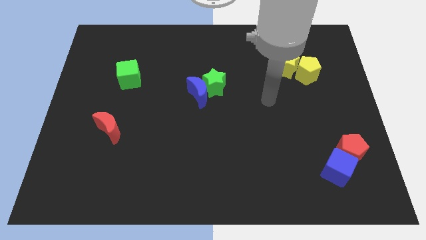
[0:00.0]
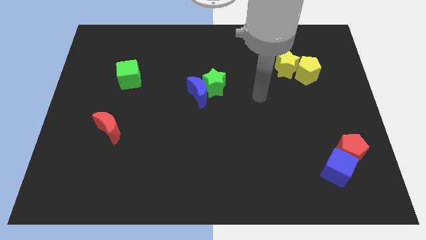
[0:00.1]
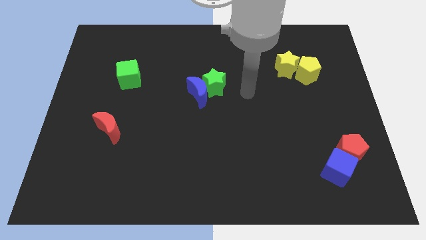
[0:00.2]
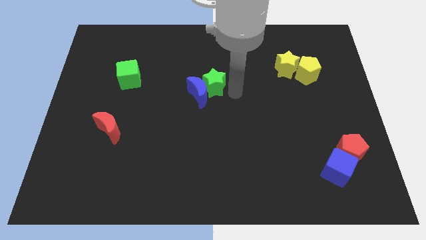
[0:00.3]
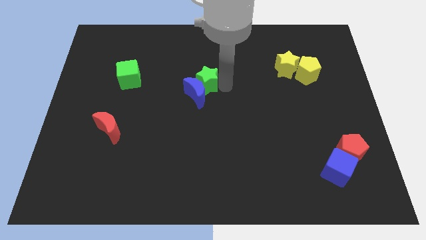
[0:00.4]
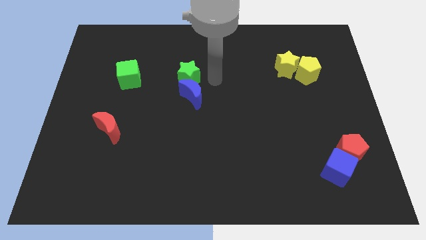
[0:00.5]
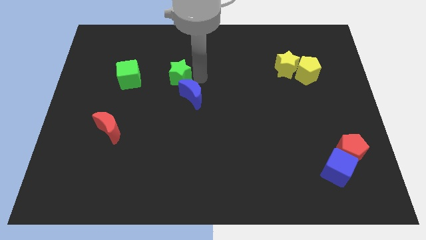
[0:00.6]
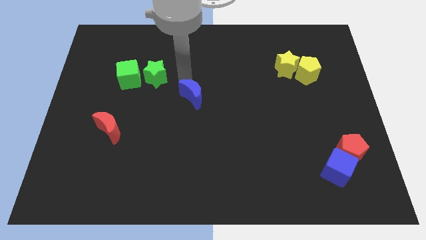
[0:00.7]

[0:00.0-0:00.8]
pull the blue moon apart from the green star

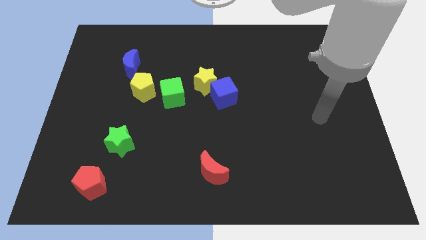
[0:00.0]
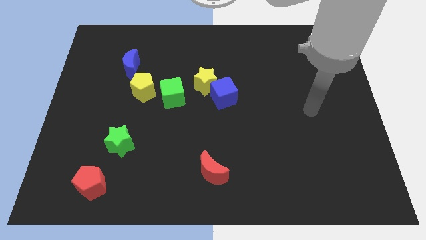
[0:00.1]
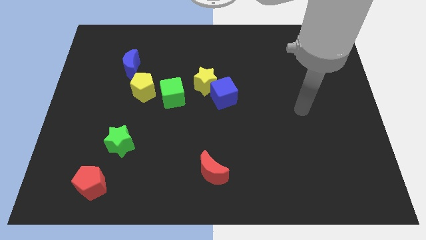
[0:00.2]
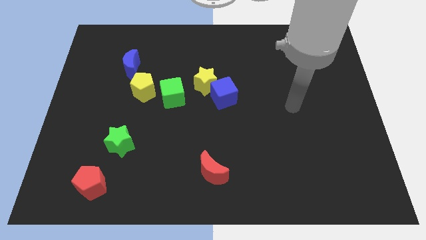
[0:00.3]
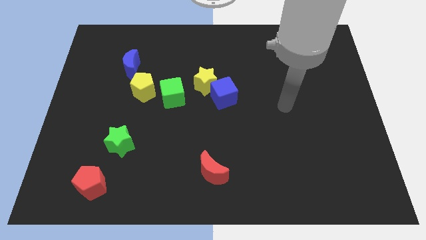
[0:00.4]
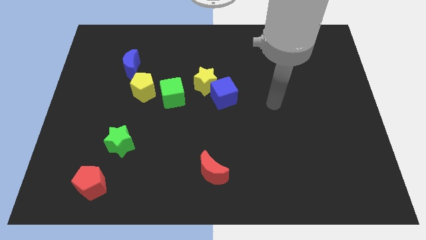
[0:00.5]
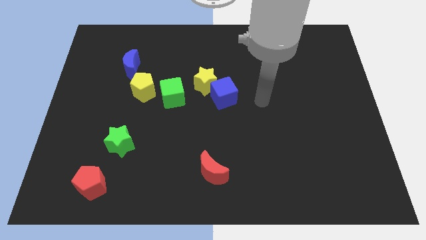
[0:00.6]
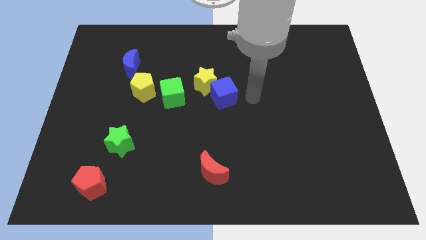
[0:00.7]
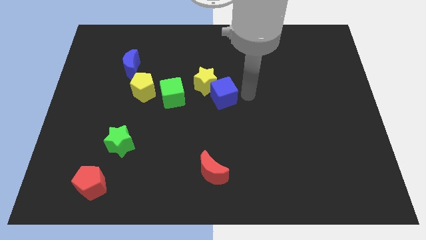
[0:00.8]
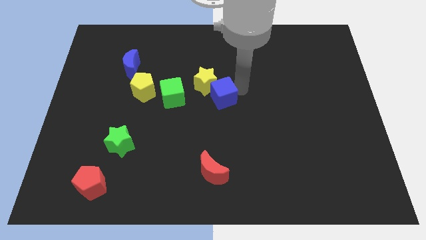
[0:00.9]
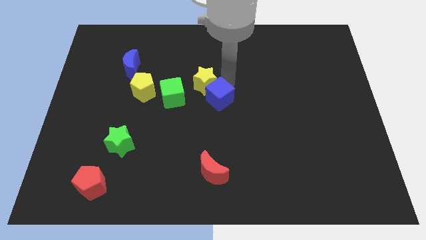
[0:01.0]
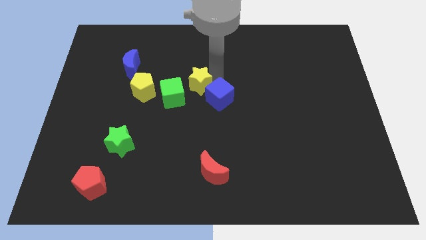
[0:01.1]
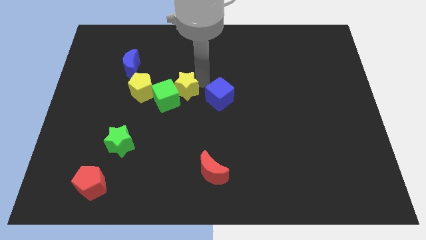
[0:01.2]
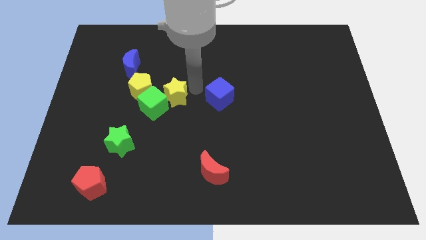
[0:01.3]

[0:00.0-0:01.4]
pull the blue cube apart from the yellow star

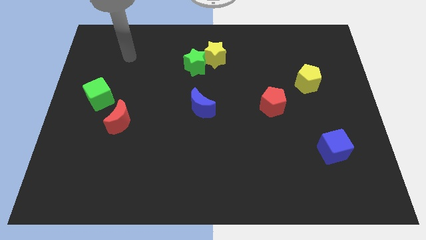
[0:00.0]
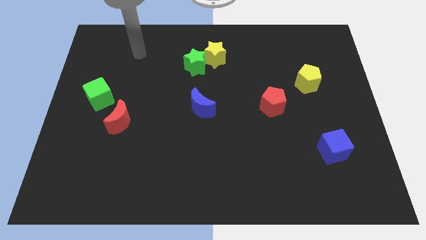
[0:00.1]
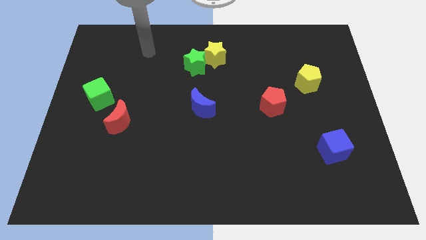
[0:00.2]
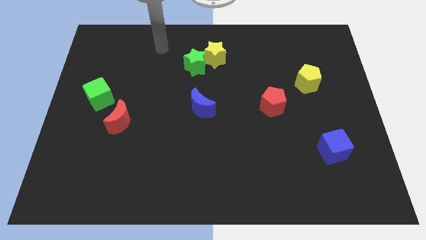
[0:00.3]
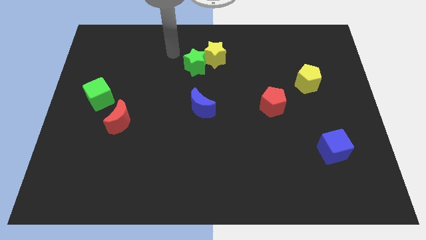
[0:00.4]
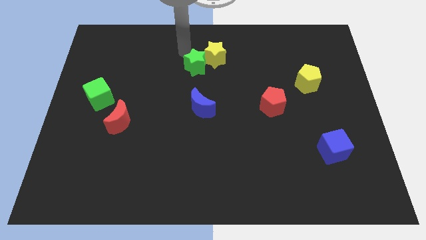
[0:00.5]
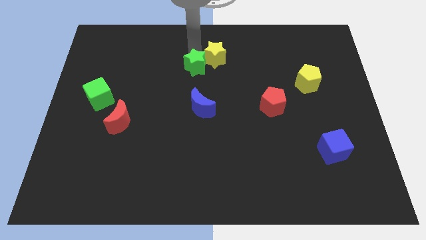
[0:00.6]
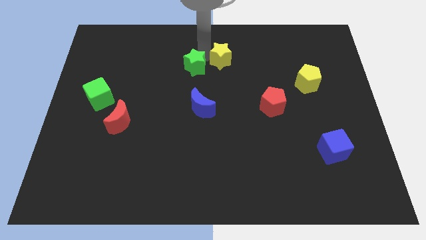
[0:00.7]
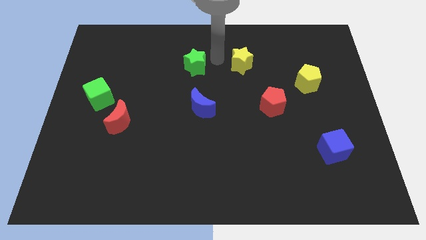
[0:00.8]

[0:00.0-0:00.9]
separate the green star from the yellow star

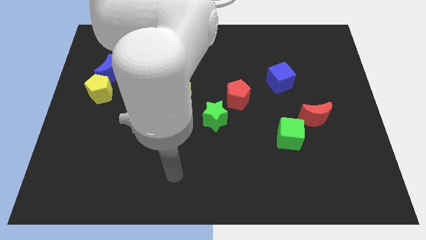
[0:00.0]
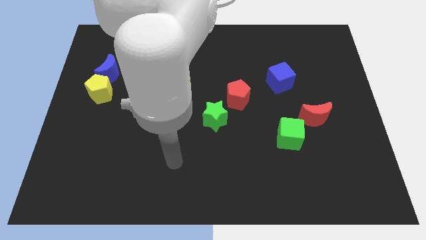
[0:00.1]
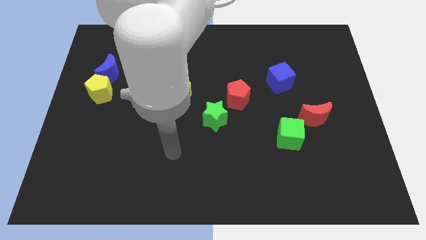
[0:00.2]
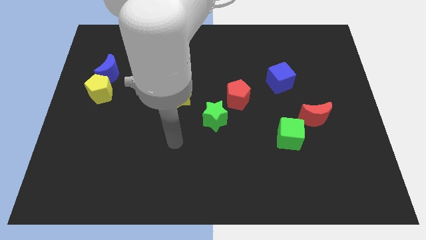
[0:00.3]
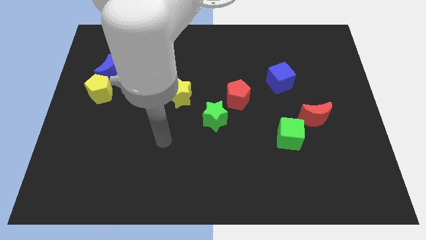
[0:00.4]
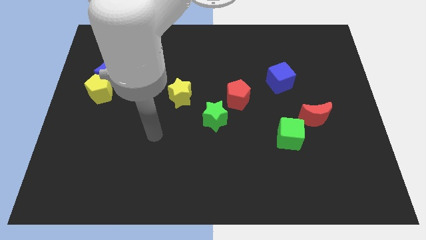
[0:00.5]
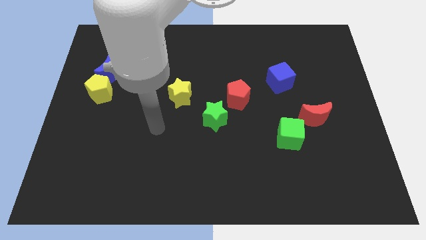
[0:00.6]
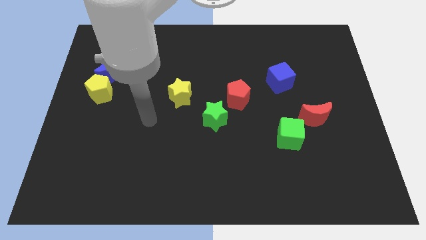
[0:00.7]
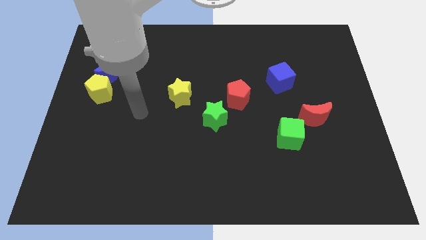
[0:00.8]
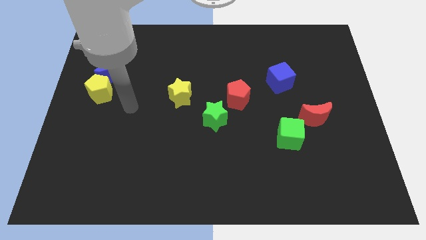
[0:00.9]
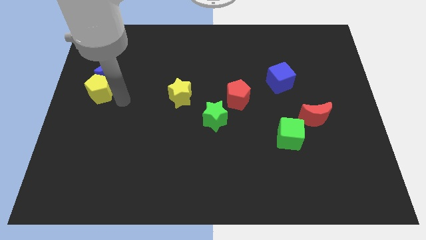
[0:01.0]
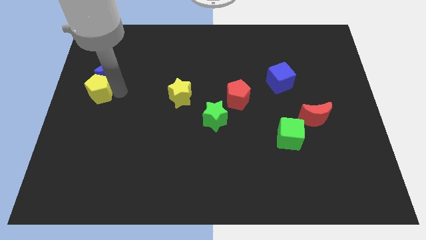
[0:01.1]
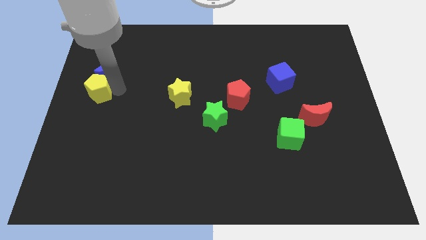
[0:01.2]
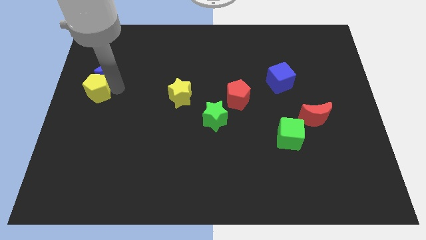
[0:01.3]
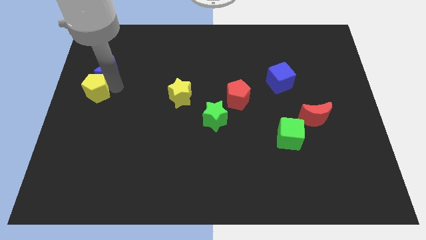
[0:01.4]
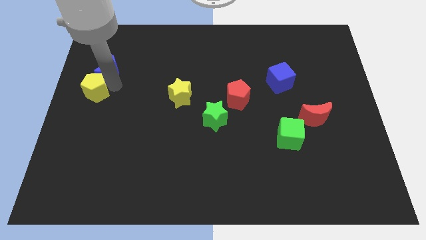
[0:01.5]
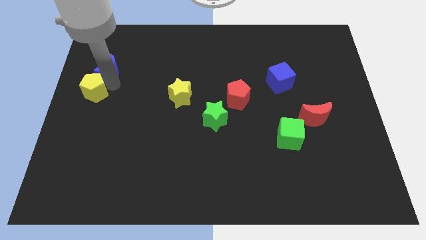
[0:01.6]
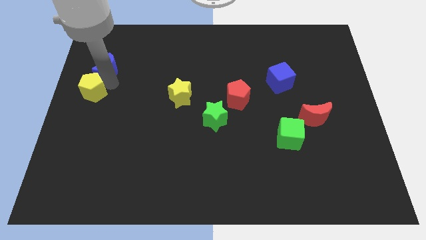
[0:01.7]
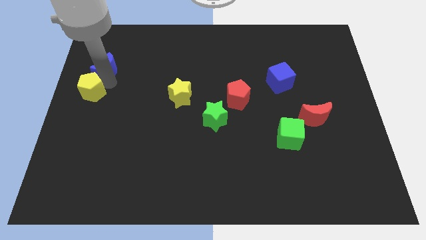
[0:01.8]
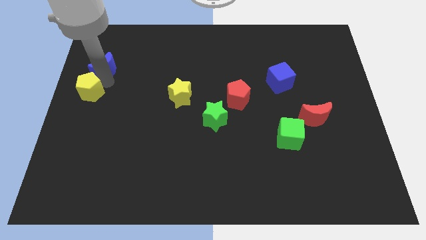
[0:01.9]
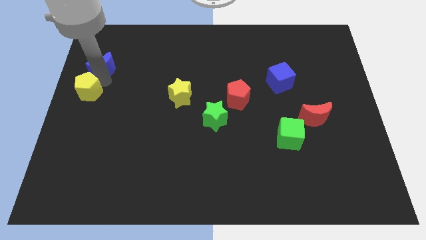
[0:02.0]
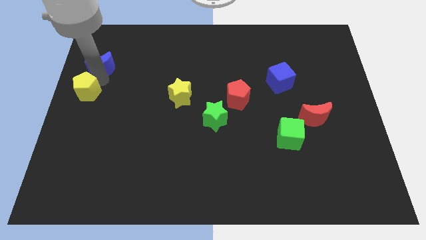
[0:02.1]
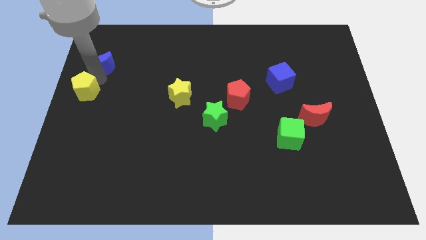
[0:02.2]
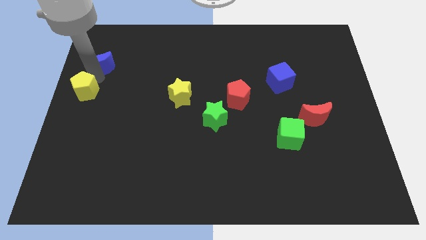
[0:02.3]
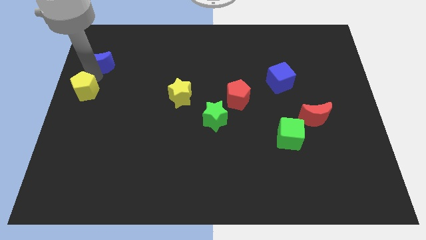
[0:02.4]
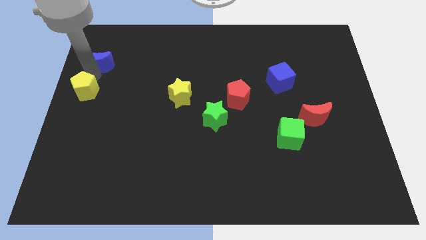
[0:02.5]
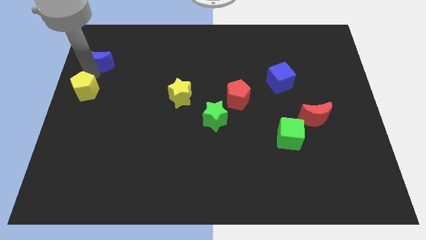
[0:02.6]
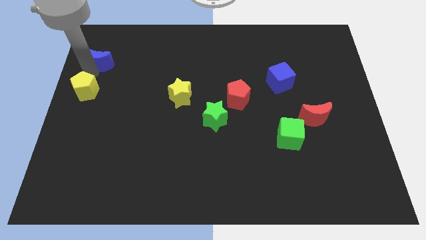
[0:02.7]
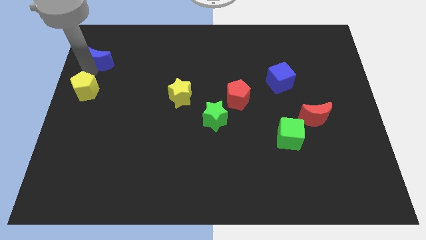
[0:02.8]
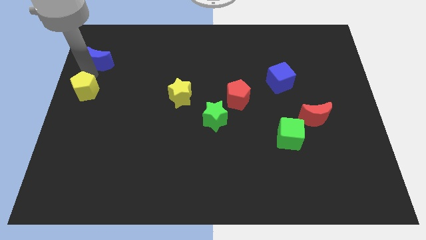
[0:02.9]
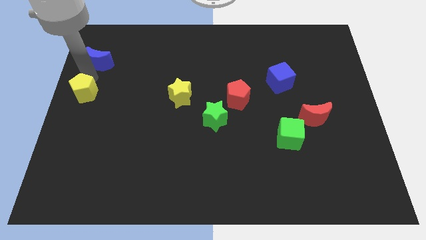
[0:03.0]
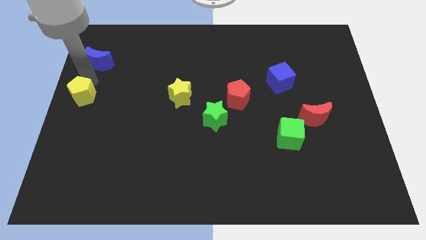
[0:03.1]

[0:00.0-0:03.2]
move the blue moon away from the yellow pentagon

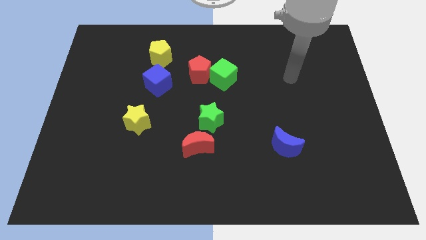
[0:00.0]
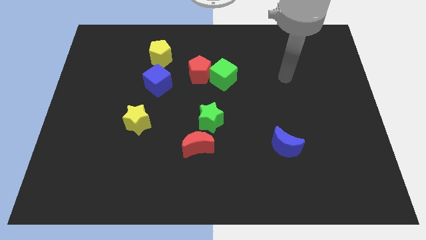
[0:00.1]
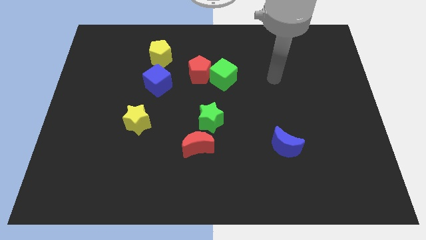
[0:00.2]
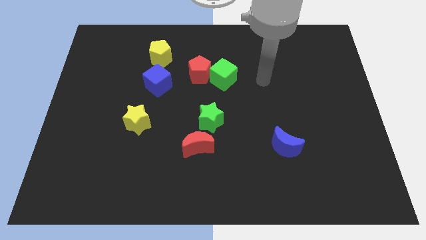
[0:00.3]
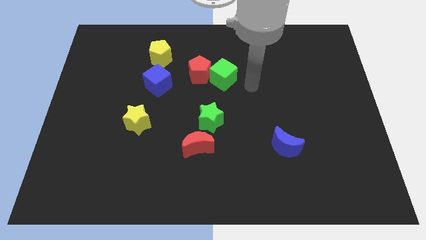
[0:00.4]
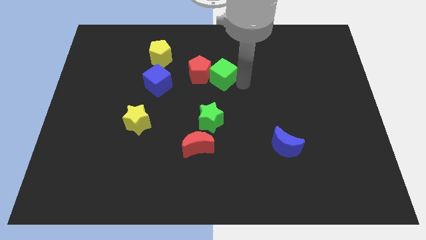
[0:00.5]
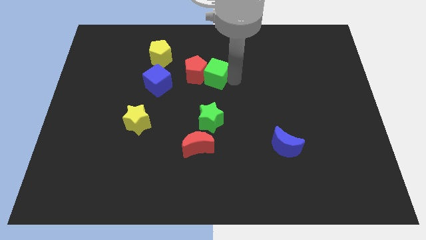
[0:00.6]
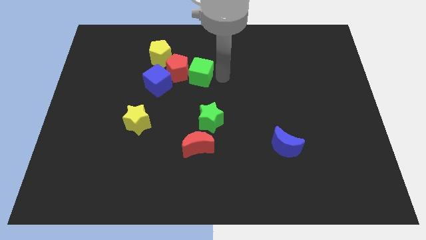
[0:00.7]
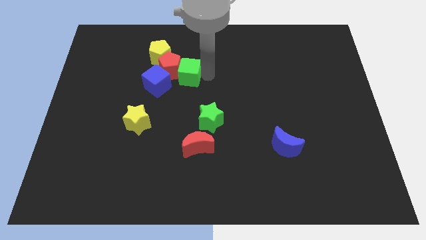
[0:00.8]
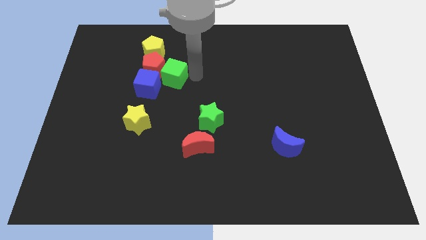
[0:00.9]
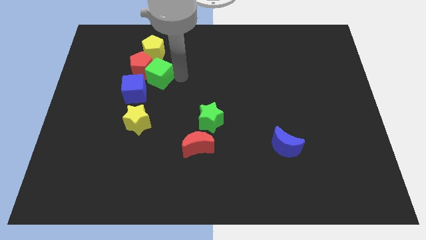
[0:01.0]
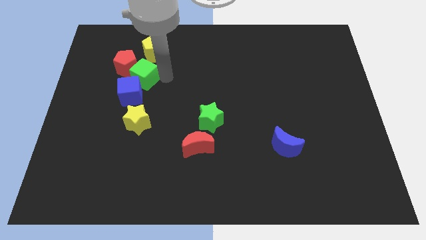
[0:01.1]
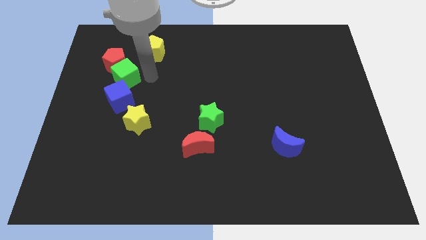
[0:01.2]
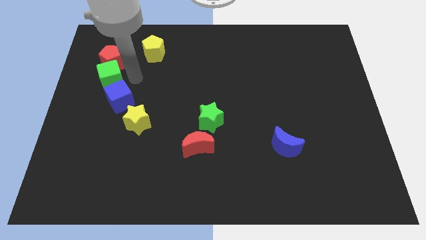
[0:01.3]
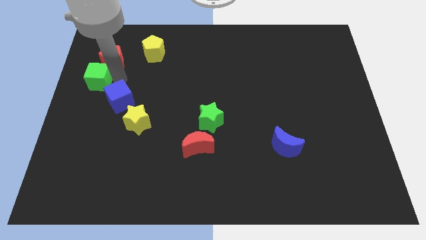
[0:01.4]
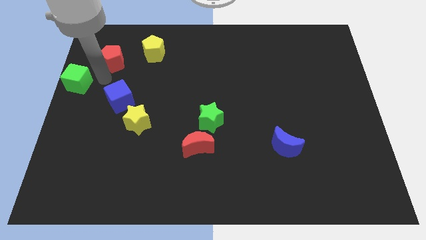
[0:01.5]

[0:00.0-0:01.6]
move the red pentagon away from the green cube

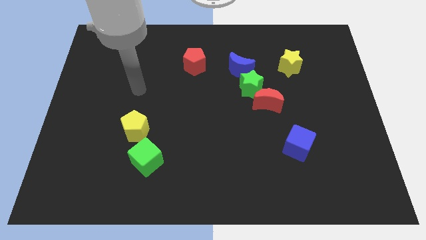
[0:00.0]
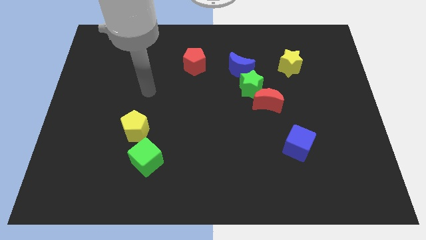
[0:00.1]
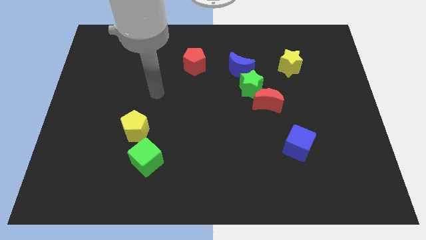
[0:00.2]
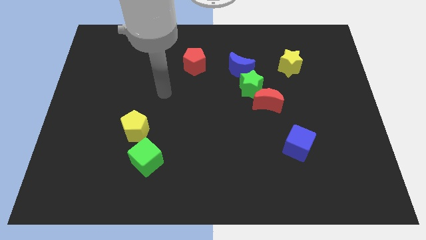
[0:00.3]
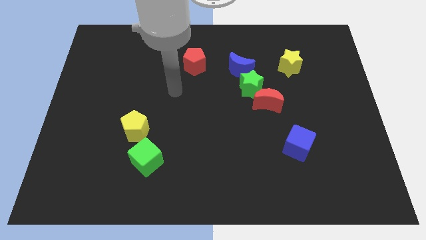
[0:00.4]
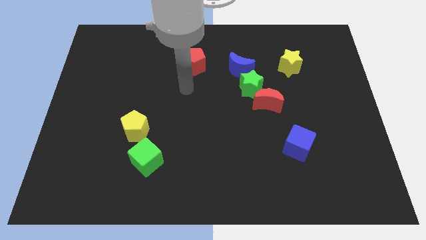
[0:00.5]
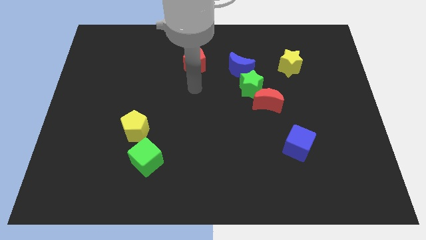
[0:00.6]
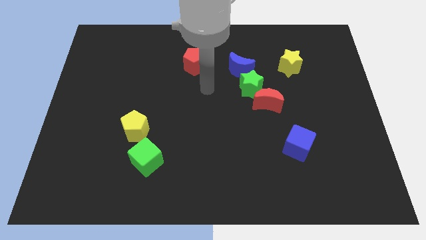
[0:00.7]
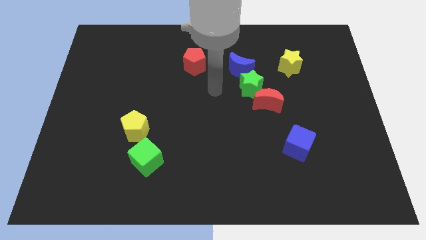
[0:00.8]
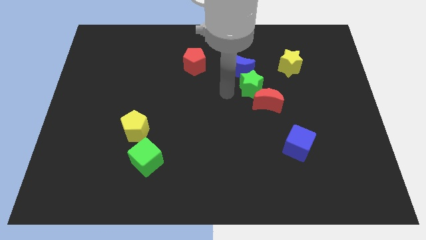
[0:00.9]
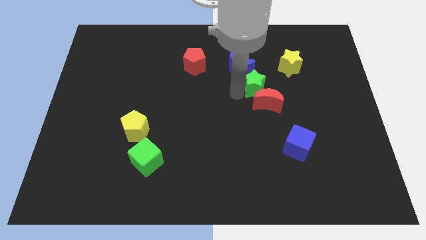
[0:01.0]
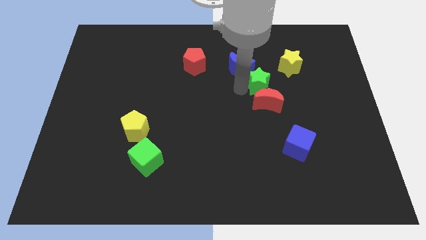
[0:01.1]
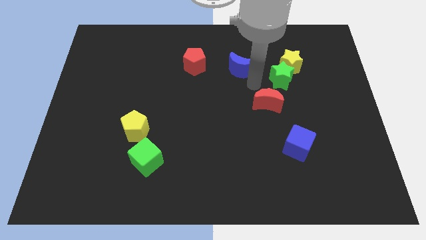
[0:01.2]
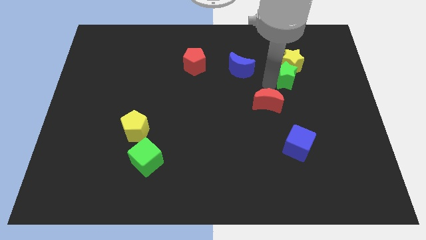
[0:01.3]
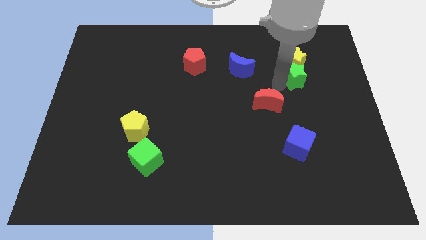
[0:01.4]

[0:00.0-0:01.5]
pull the red moon apart from the green star
